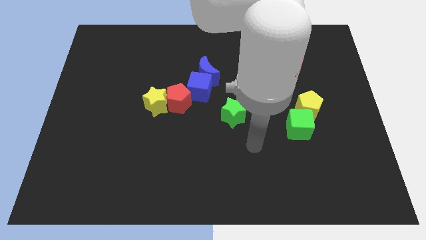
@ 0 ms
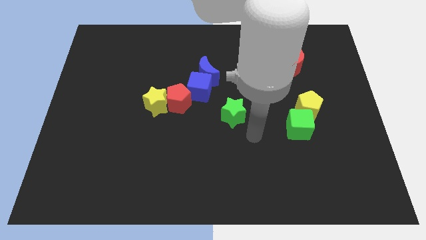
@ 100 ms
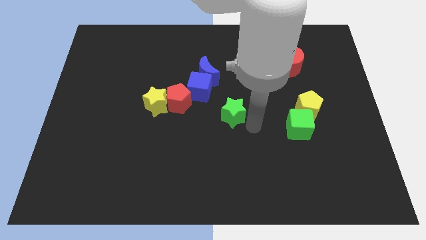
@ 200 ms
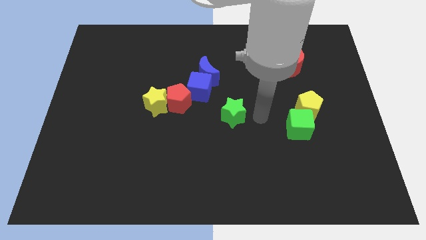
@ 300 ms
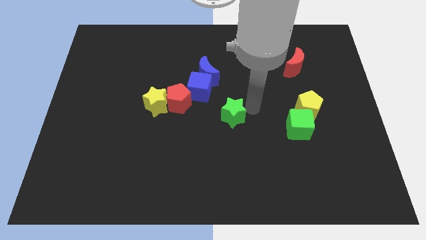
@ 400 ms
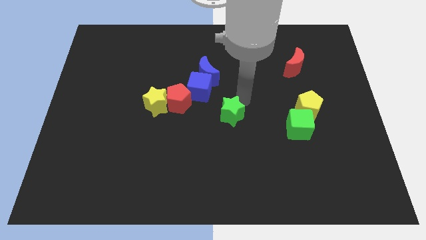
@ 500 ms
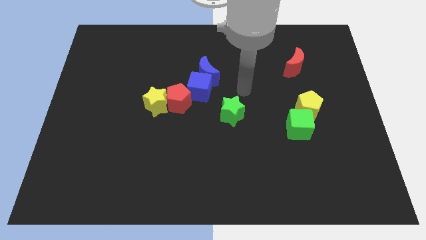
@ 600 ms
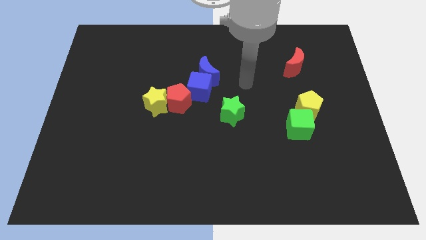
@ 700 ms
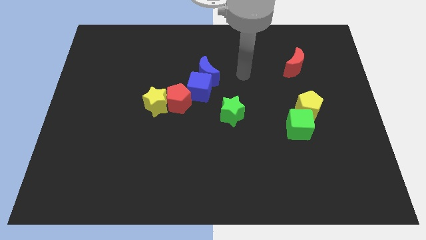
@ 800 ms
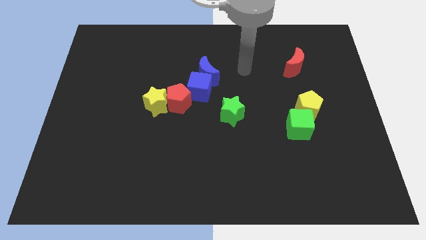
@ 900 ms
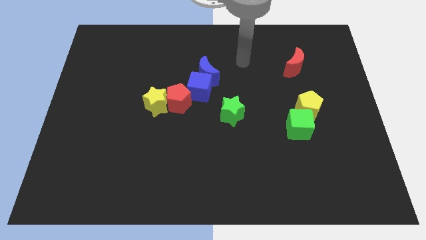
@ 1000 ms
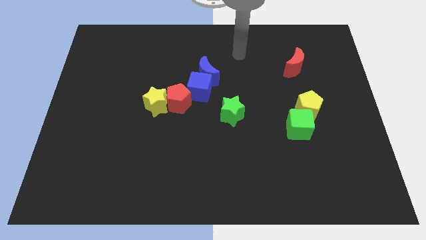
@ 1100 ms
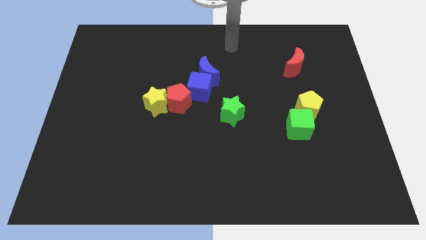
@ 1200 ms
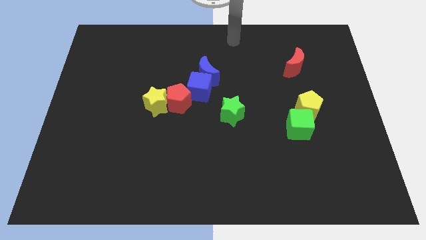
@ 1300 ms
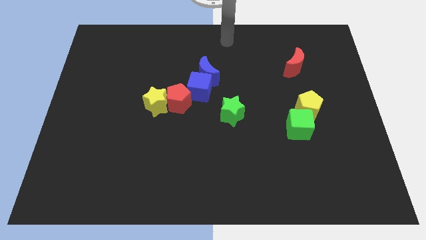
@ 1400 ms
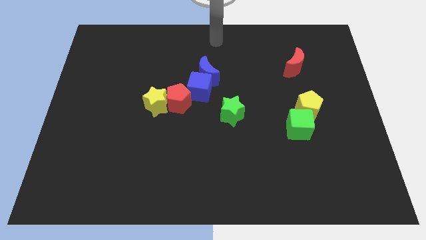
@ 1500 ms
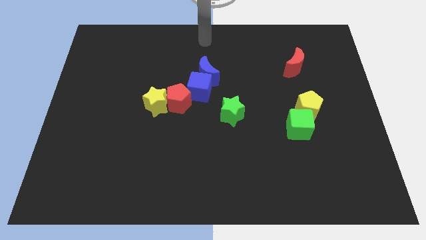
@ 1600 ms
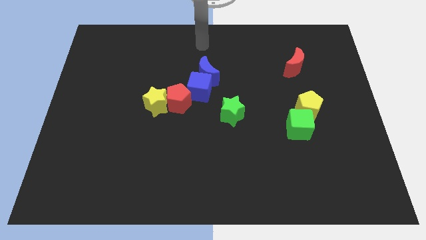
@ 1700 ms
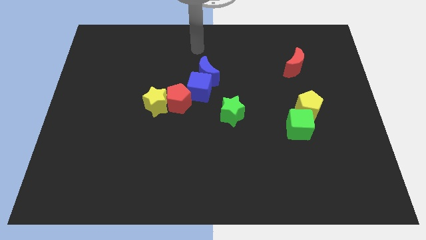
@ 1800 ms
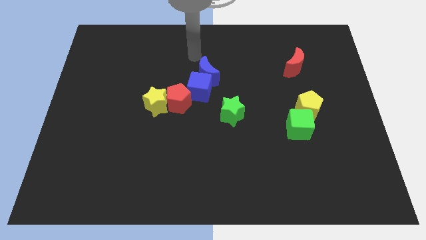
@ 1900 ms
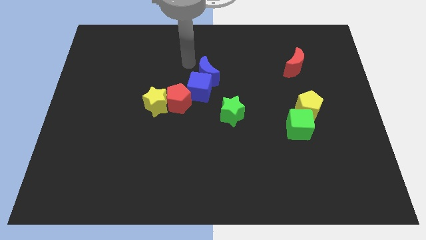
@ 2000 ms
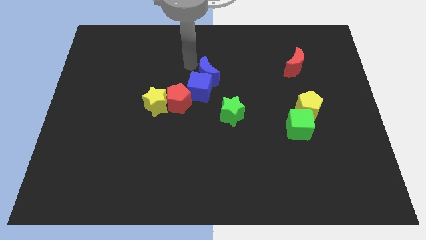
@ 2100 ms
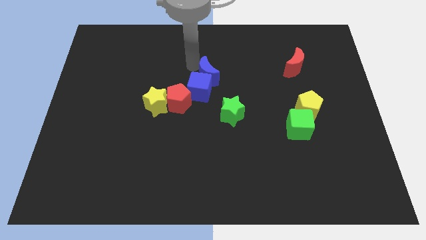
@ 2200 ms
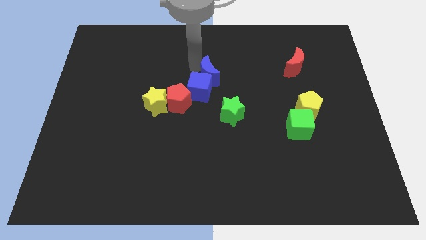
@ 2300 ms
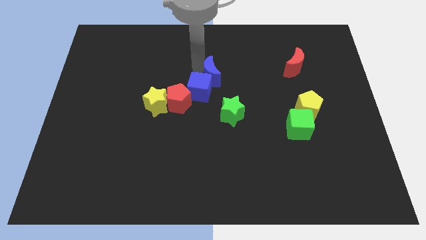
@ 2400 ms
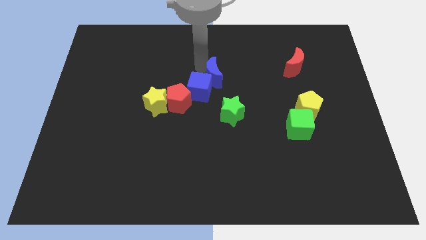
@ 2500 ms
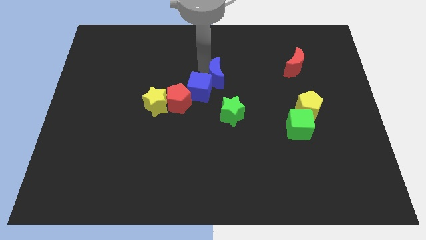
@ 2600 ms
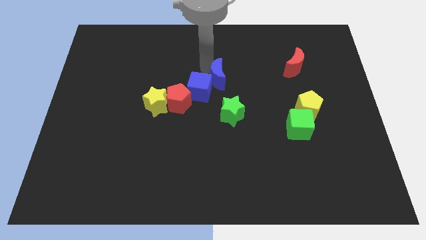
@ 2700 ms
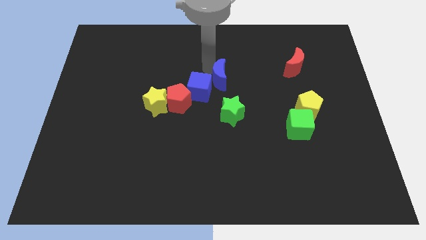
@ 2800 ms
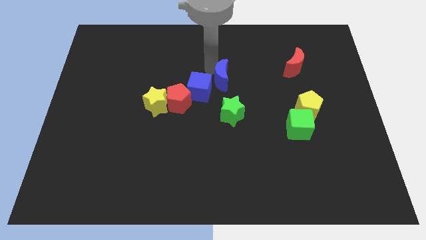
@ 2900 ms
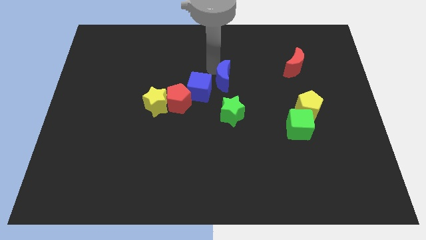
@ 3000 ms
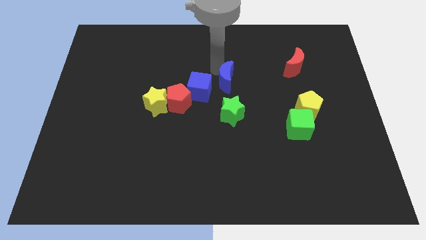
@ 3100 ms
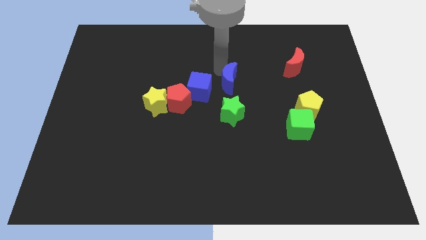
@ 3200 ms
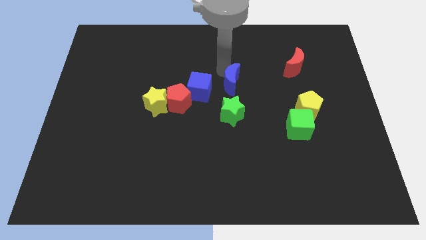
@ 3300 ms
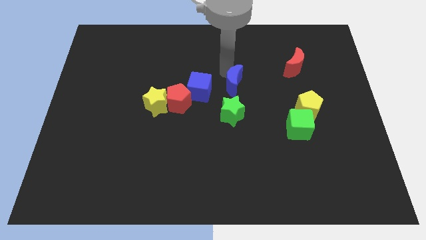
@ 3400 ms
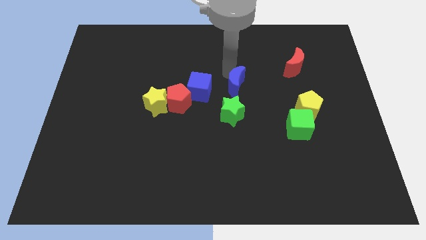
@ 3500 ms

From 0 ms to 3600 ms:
push the blue moon a bit diagonally down and to the right

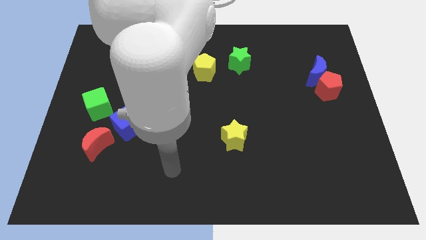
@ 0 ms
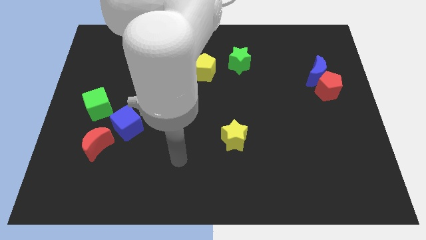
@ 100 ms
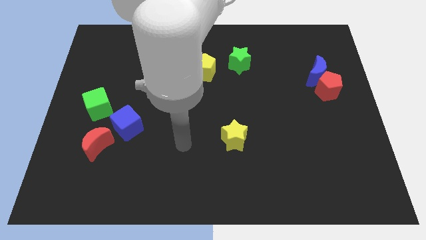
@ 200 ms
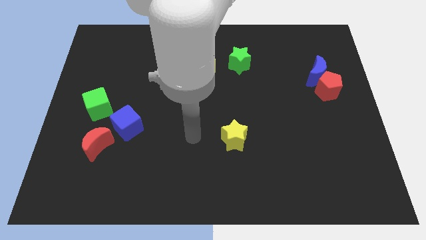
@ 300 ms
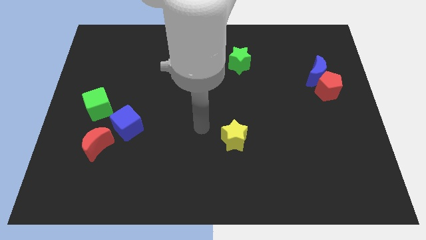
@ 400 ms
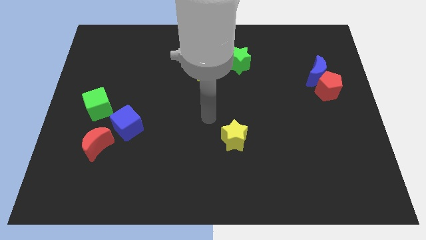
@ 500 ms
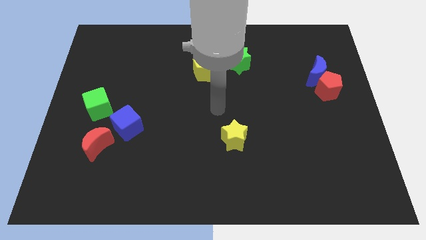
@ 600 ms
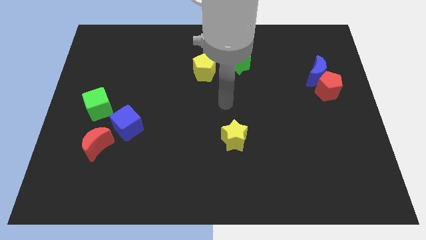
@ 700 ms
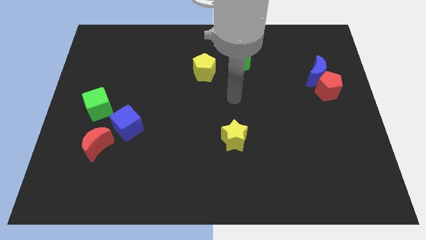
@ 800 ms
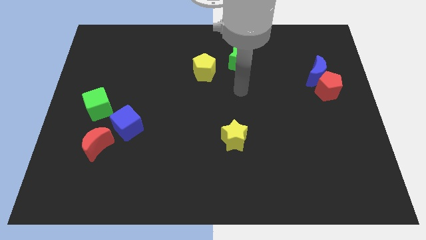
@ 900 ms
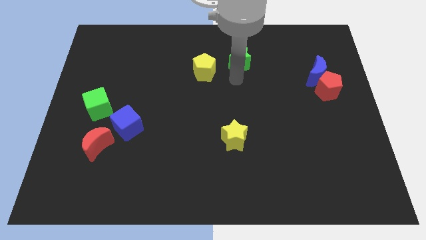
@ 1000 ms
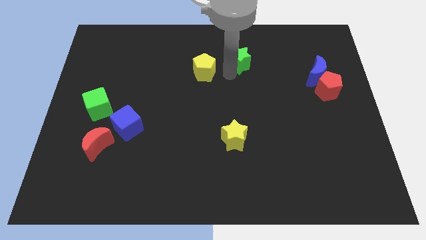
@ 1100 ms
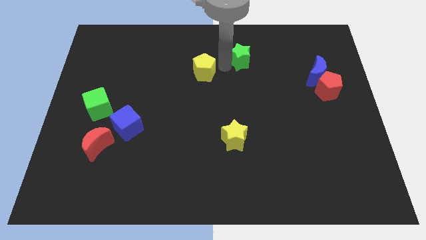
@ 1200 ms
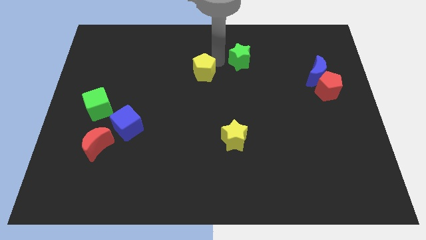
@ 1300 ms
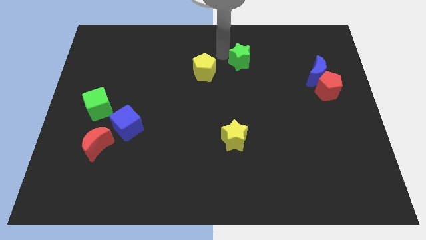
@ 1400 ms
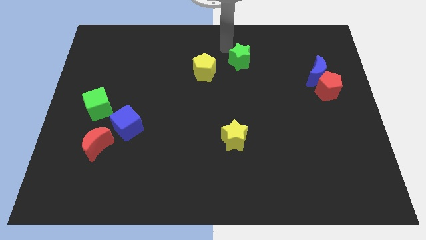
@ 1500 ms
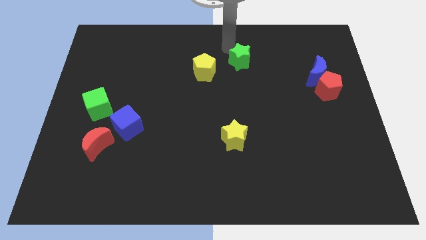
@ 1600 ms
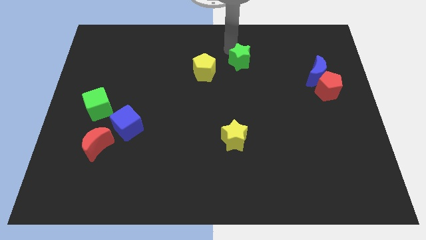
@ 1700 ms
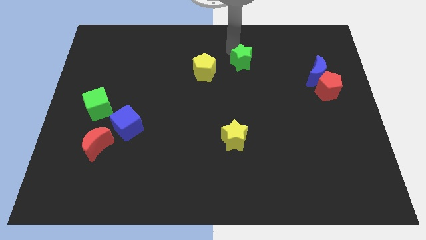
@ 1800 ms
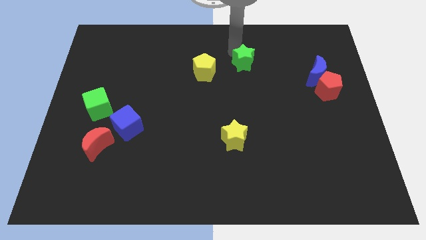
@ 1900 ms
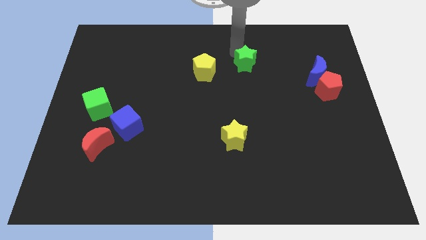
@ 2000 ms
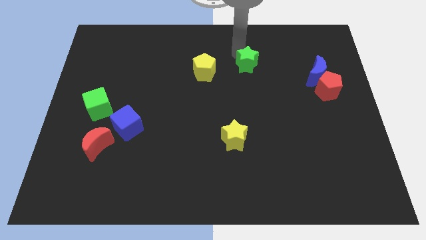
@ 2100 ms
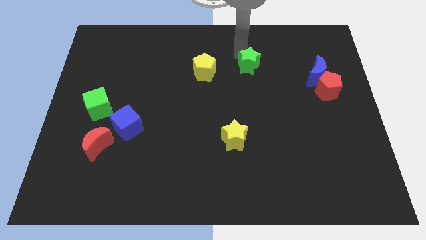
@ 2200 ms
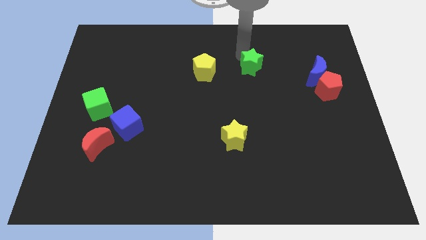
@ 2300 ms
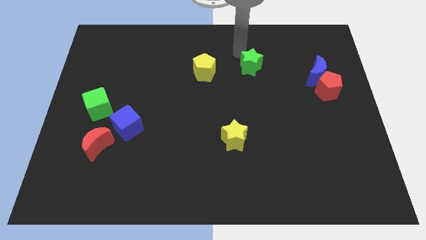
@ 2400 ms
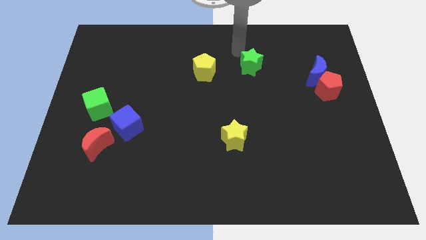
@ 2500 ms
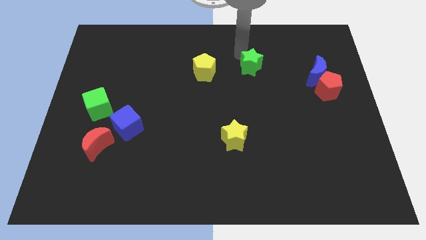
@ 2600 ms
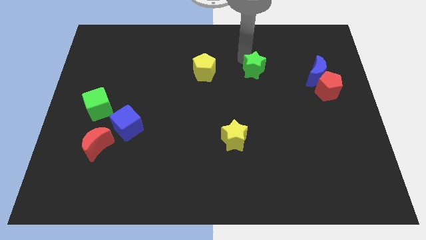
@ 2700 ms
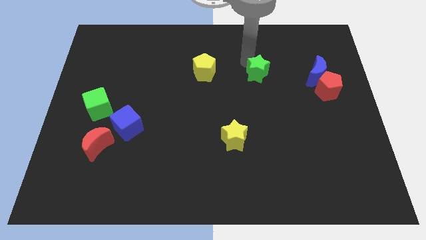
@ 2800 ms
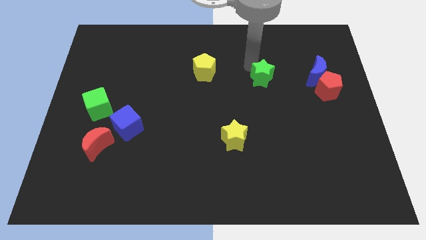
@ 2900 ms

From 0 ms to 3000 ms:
slightly push the green star downwards and right diagonally

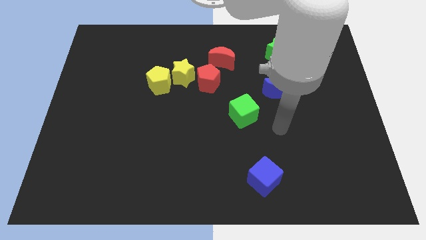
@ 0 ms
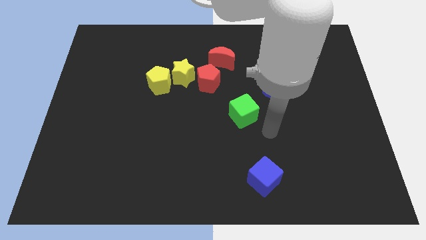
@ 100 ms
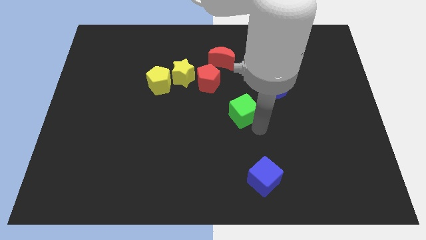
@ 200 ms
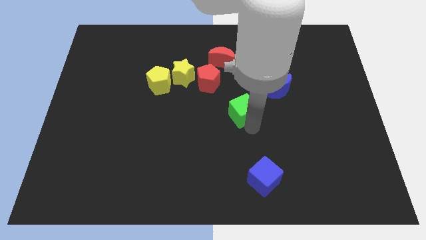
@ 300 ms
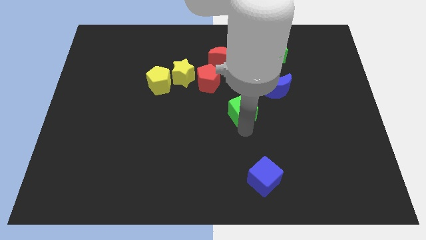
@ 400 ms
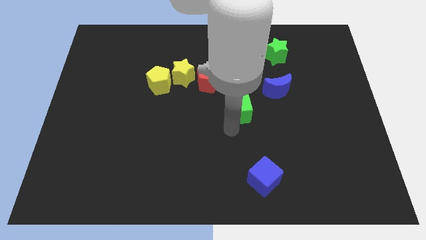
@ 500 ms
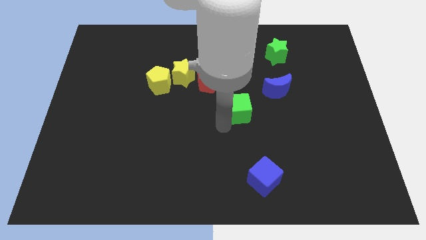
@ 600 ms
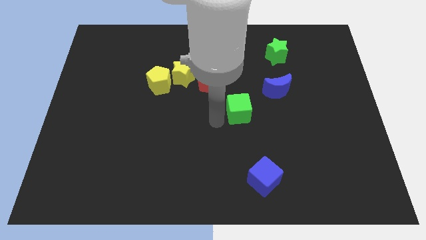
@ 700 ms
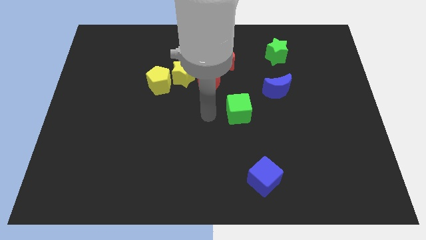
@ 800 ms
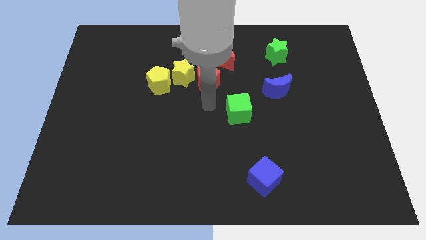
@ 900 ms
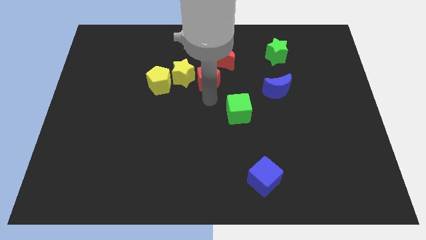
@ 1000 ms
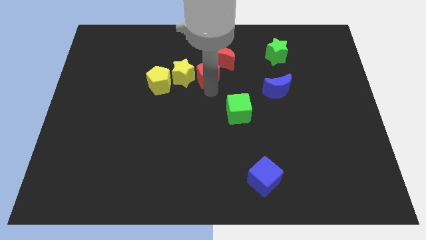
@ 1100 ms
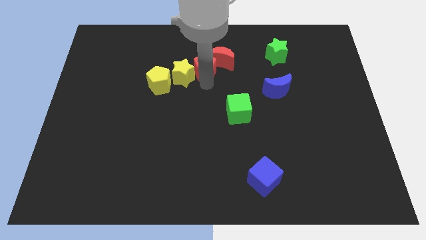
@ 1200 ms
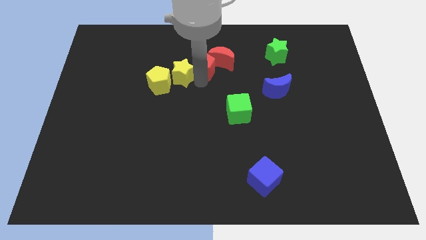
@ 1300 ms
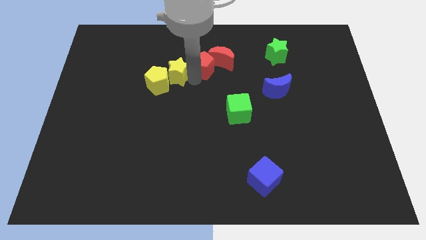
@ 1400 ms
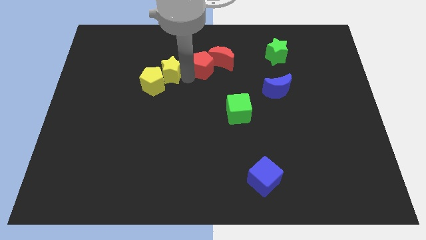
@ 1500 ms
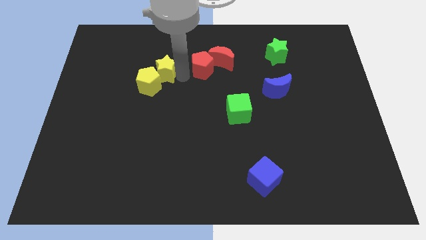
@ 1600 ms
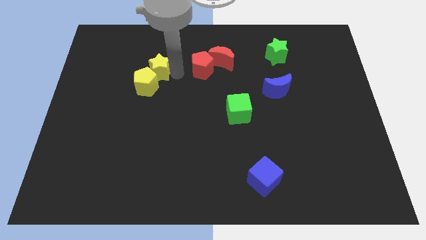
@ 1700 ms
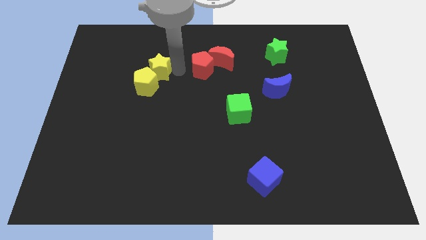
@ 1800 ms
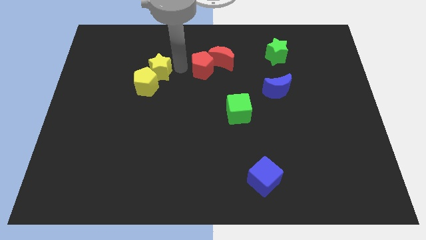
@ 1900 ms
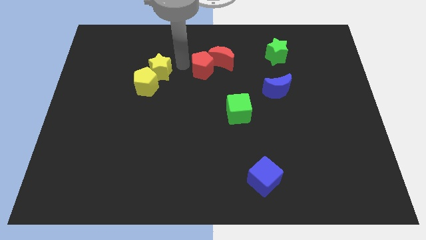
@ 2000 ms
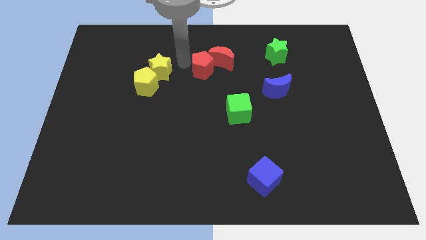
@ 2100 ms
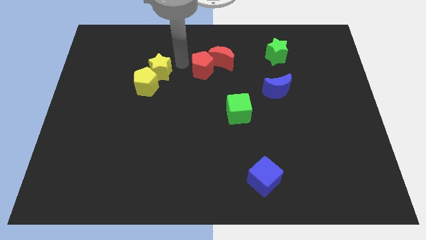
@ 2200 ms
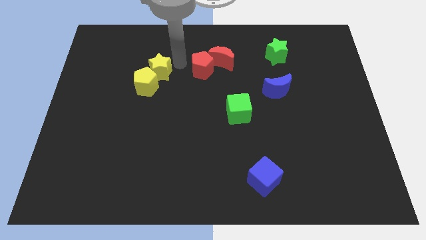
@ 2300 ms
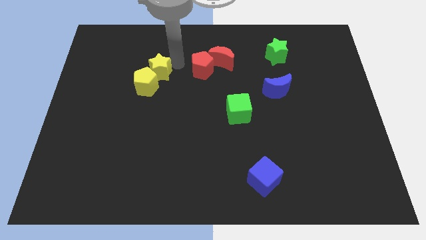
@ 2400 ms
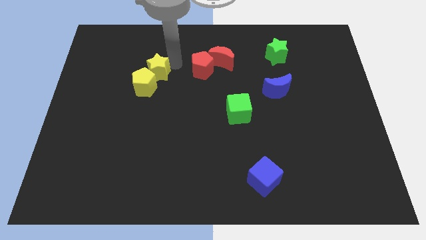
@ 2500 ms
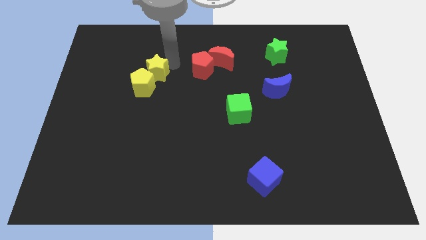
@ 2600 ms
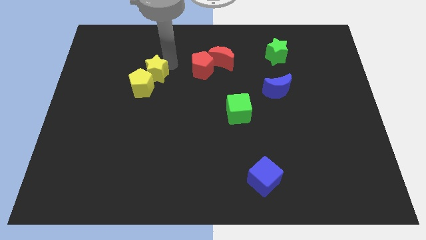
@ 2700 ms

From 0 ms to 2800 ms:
slightly slide the yellow star left
